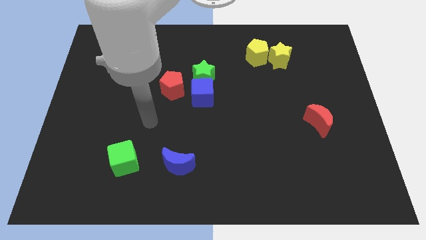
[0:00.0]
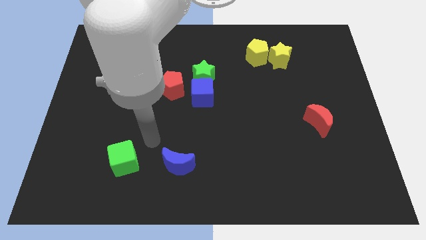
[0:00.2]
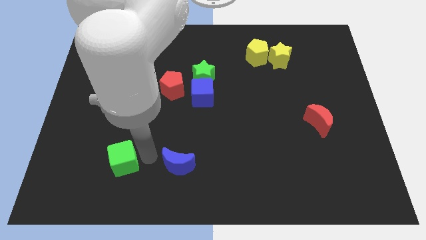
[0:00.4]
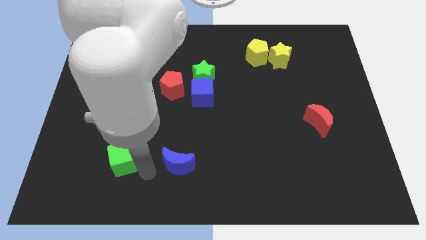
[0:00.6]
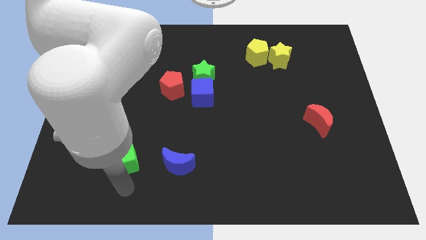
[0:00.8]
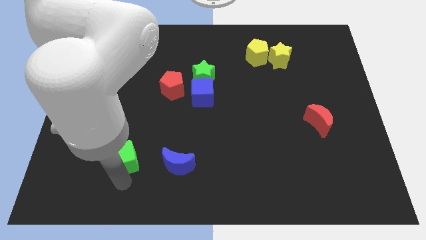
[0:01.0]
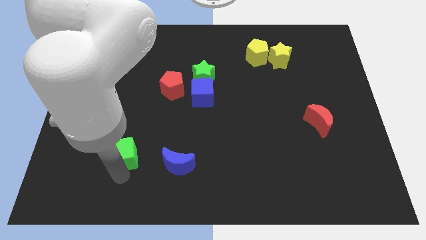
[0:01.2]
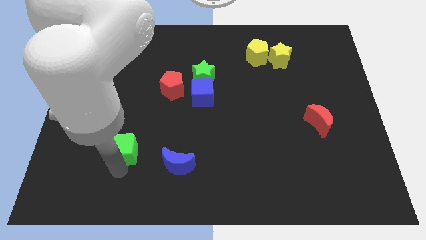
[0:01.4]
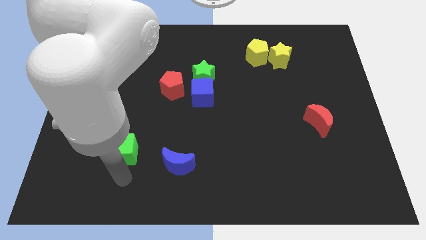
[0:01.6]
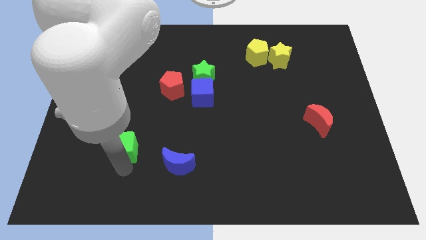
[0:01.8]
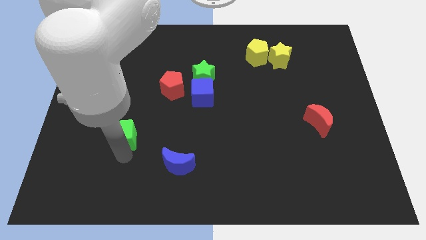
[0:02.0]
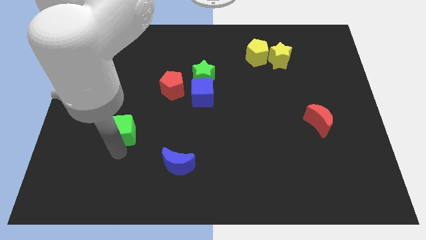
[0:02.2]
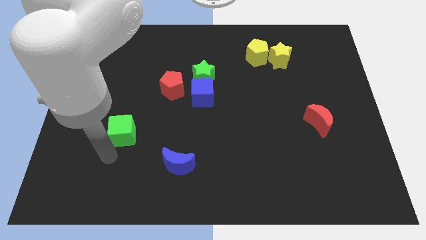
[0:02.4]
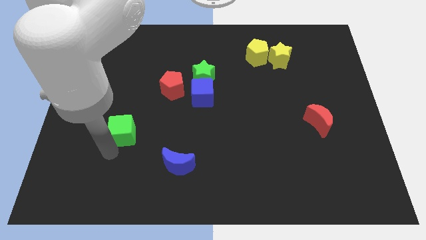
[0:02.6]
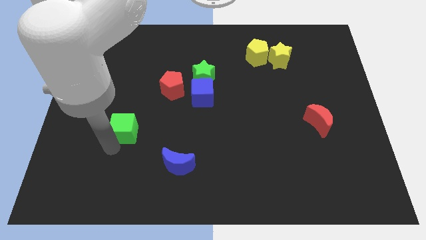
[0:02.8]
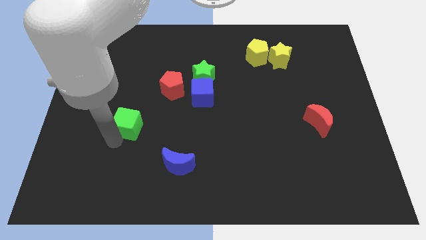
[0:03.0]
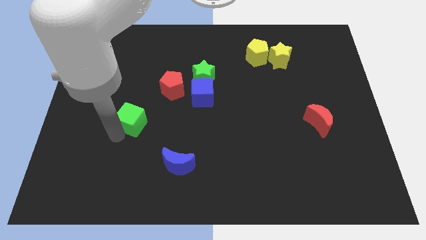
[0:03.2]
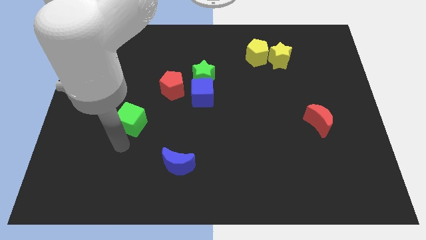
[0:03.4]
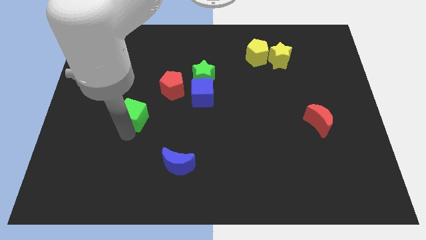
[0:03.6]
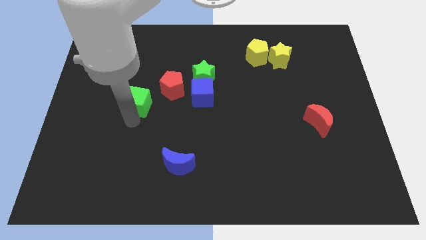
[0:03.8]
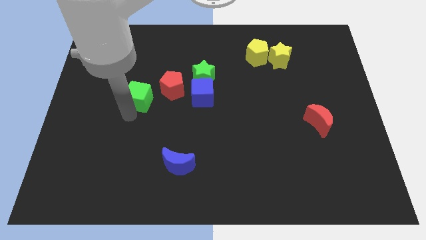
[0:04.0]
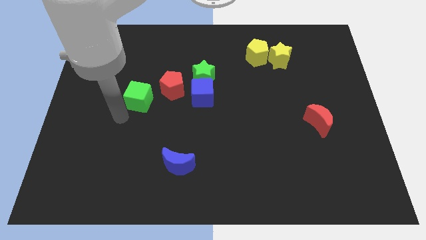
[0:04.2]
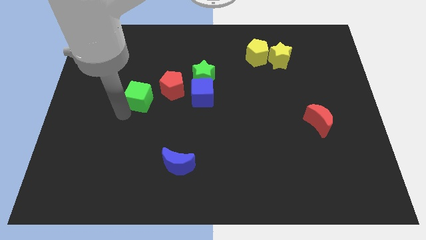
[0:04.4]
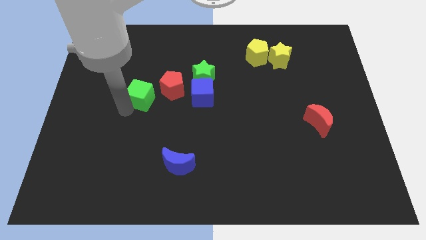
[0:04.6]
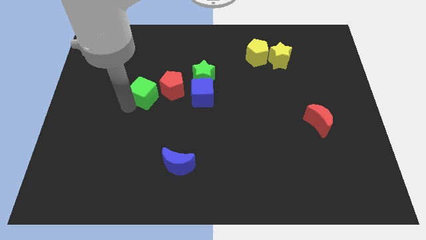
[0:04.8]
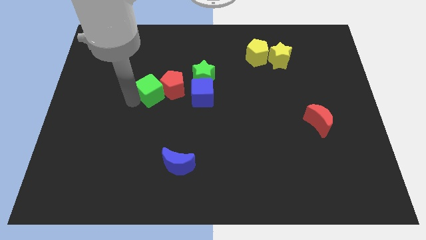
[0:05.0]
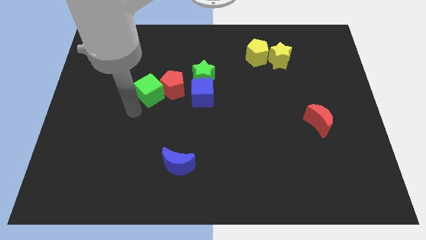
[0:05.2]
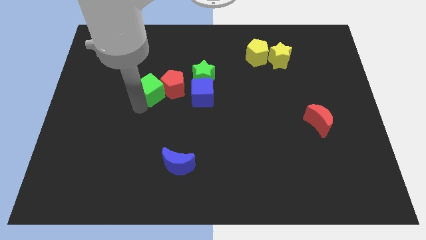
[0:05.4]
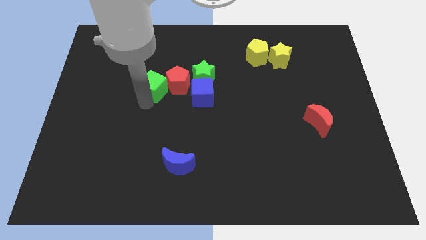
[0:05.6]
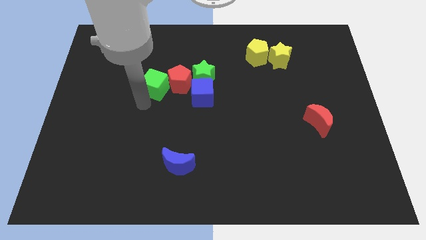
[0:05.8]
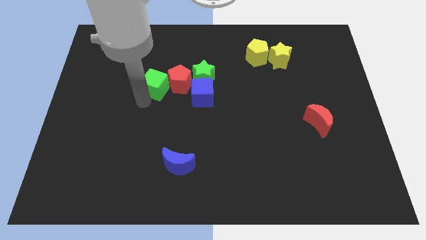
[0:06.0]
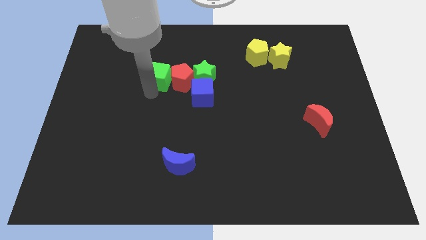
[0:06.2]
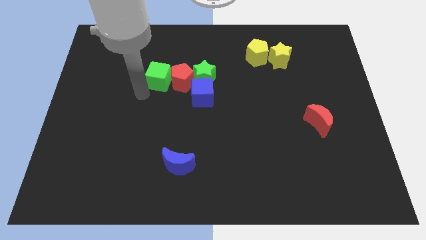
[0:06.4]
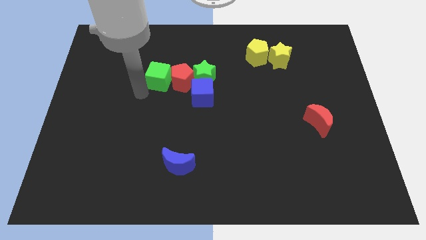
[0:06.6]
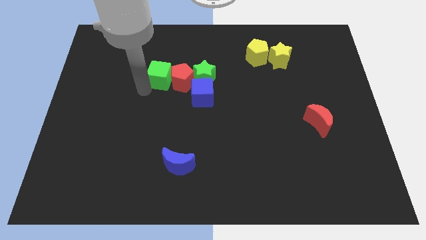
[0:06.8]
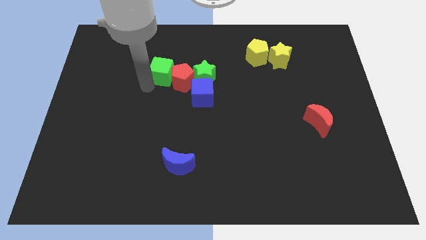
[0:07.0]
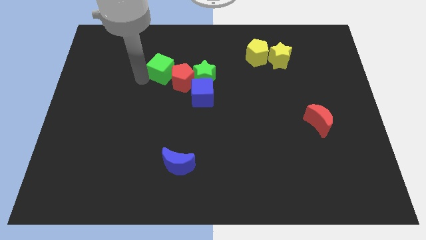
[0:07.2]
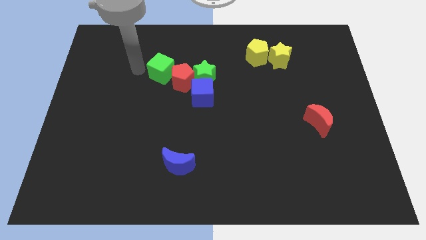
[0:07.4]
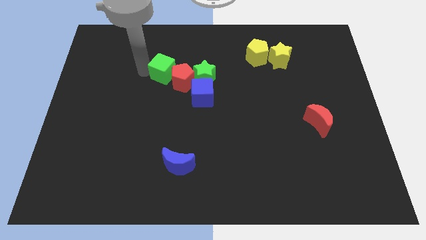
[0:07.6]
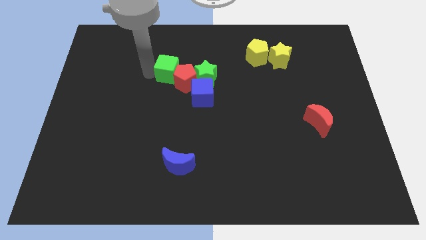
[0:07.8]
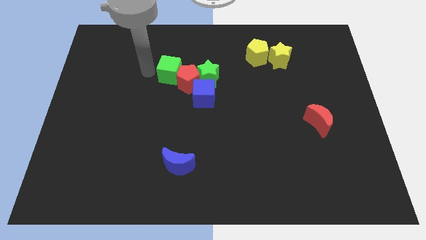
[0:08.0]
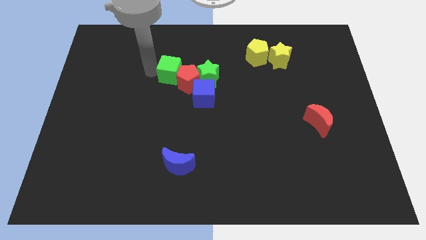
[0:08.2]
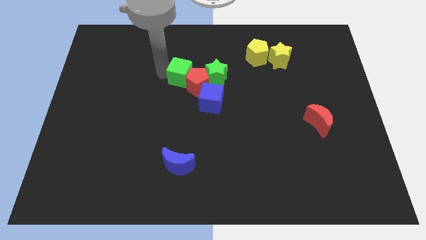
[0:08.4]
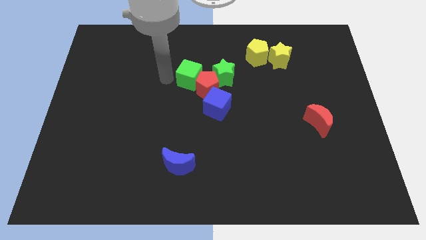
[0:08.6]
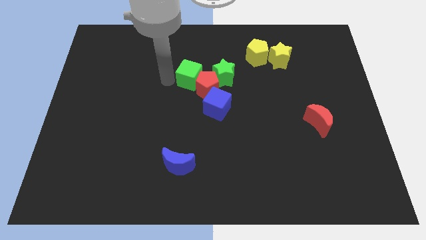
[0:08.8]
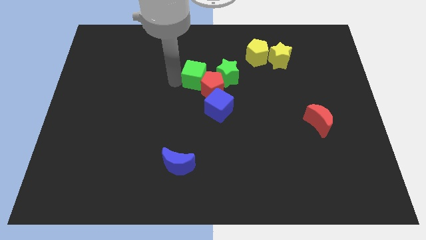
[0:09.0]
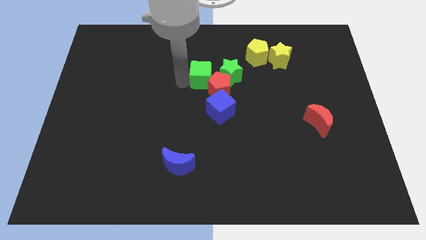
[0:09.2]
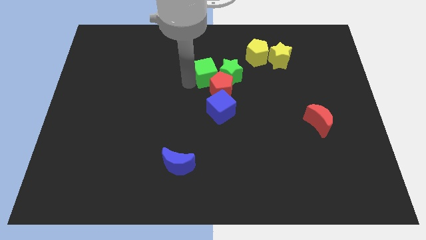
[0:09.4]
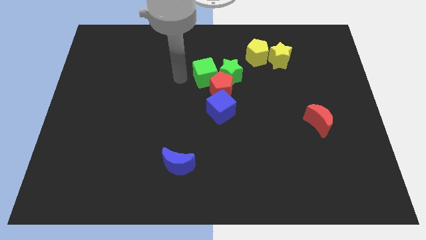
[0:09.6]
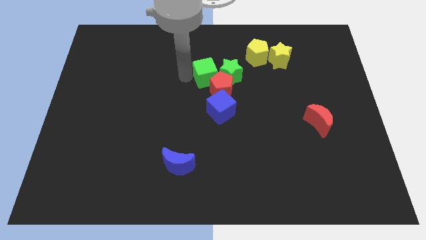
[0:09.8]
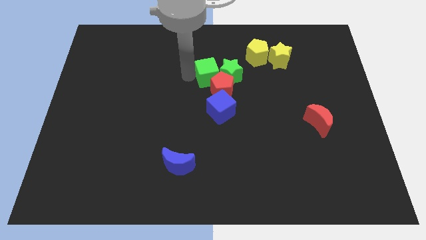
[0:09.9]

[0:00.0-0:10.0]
put the green cube close to the green star

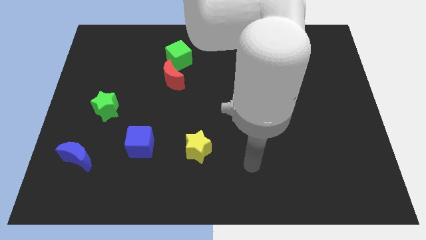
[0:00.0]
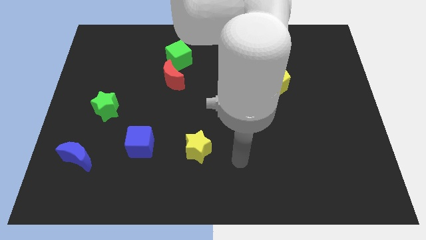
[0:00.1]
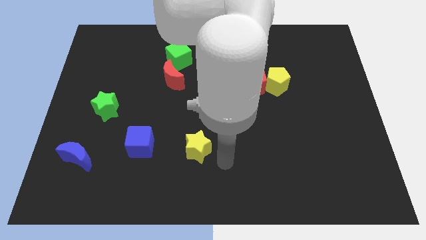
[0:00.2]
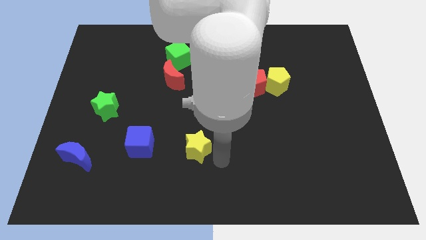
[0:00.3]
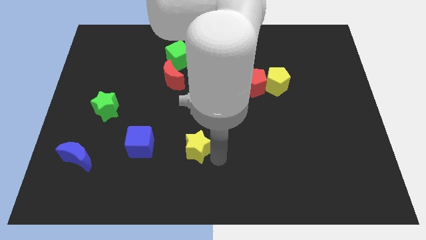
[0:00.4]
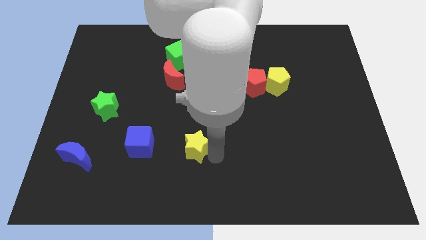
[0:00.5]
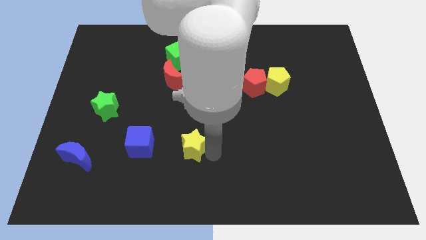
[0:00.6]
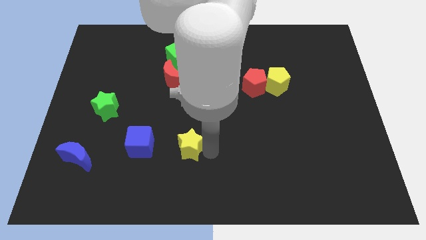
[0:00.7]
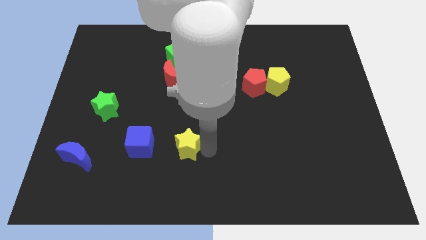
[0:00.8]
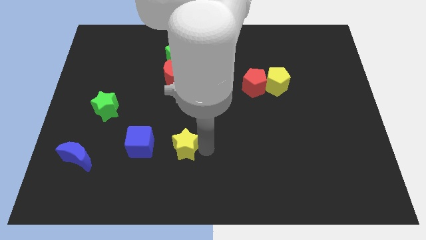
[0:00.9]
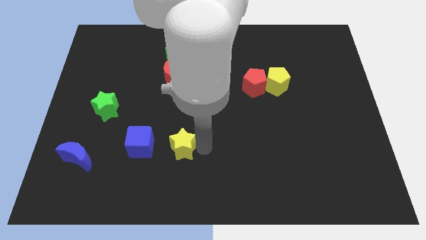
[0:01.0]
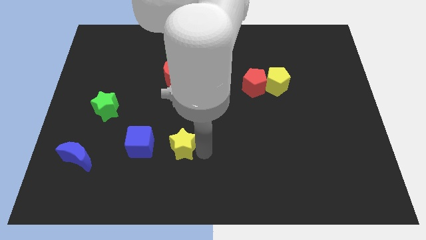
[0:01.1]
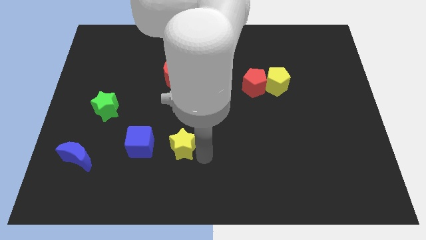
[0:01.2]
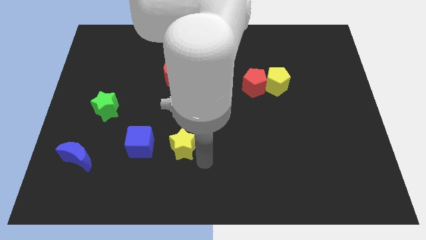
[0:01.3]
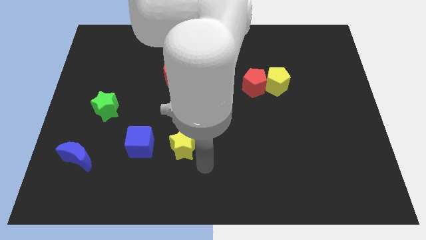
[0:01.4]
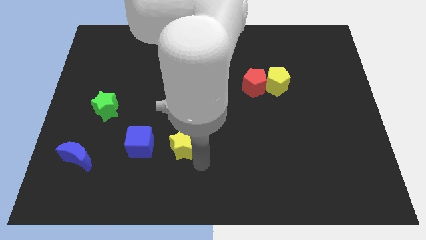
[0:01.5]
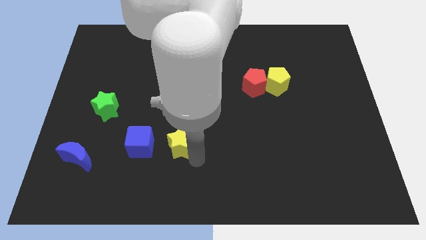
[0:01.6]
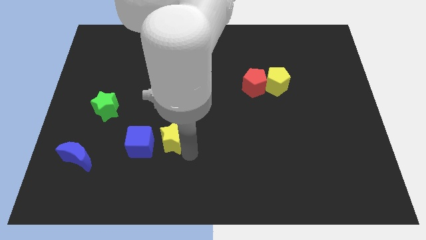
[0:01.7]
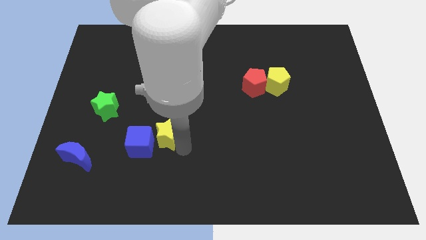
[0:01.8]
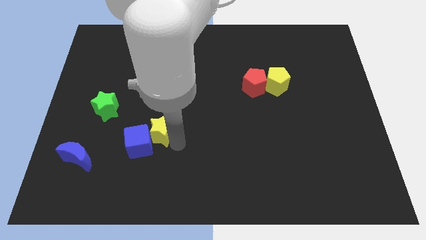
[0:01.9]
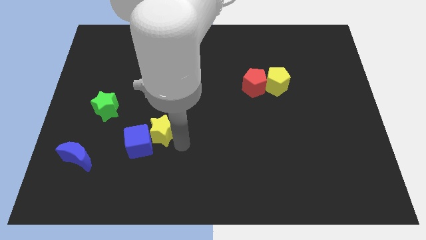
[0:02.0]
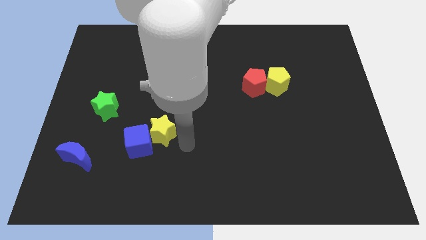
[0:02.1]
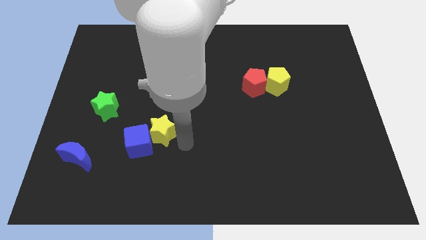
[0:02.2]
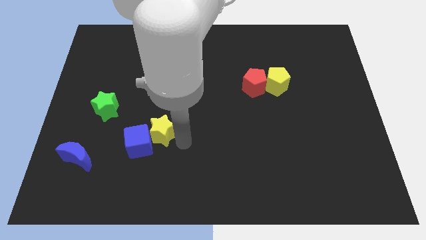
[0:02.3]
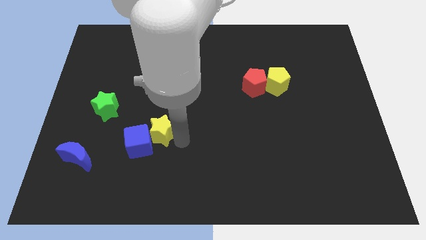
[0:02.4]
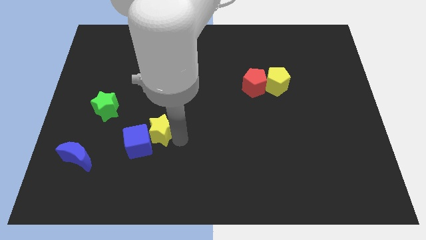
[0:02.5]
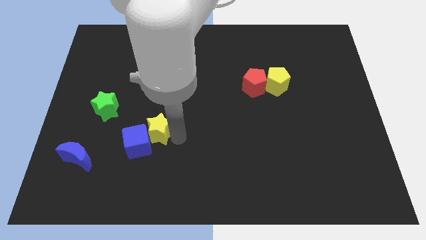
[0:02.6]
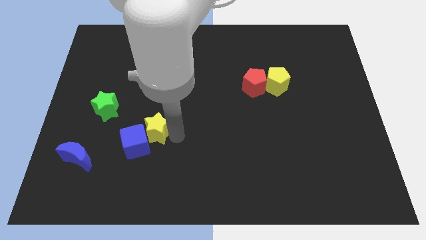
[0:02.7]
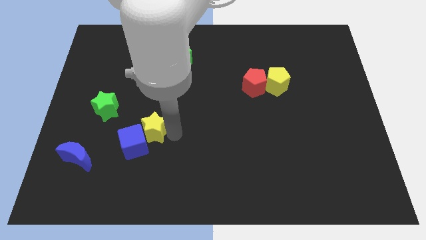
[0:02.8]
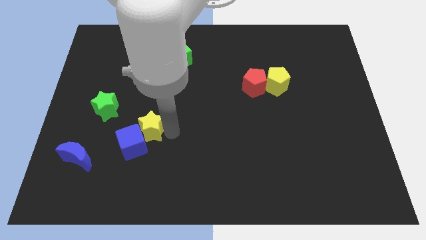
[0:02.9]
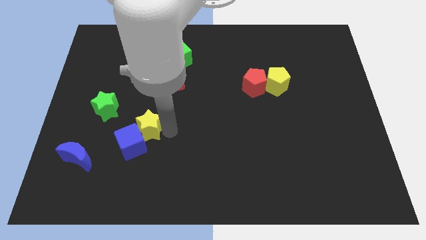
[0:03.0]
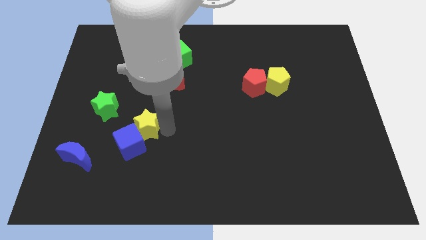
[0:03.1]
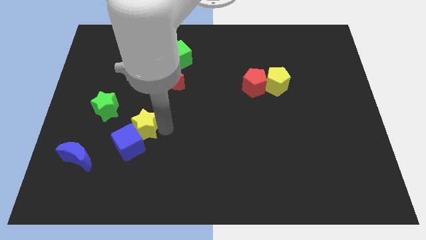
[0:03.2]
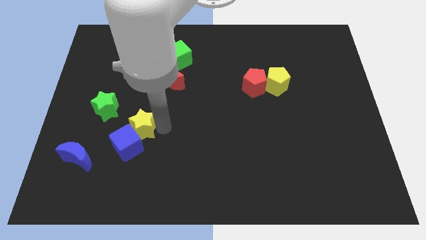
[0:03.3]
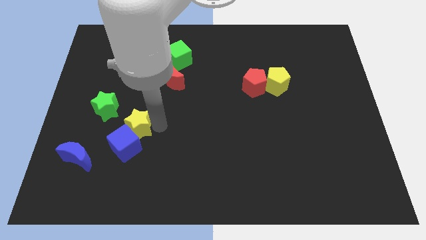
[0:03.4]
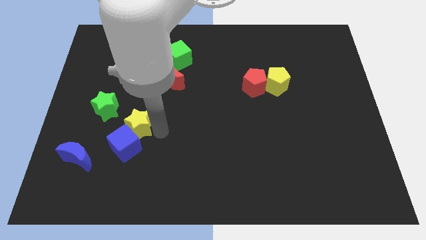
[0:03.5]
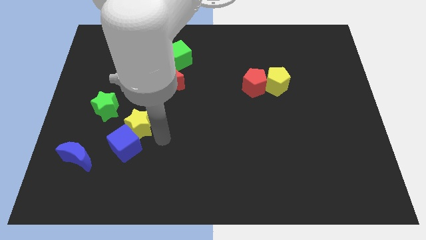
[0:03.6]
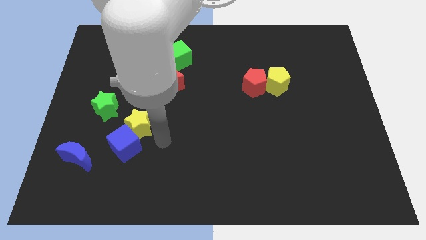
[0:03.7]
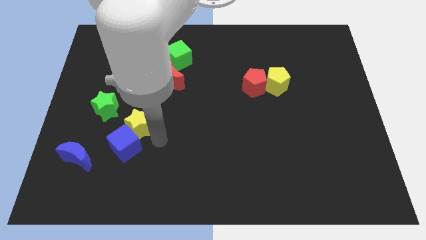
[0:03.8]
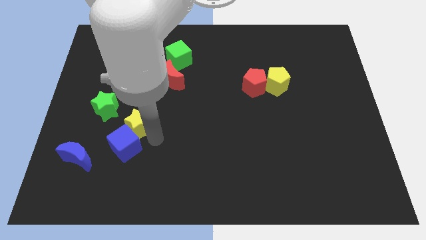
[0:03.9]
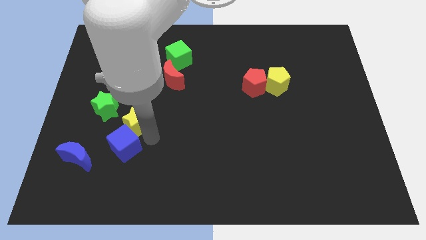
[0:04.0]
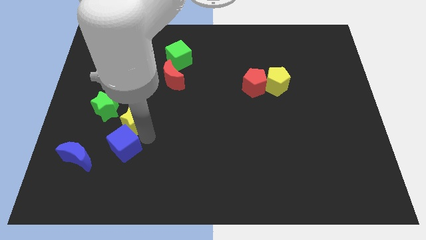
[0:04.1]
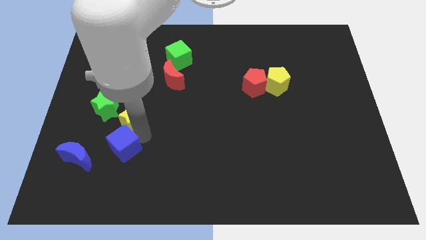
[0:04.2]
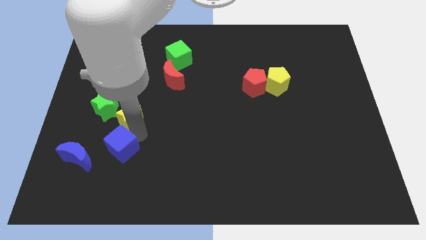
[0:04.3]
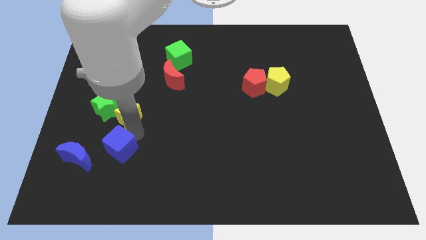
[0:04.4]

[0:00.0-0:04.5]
move the yellow star next to the green star
